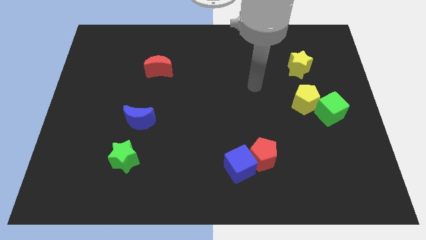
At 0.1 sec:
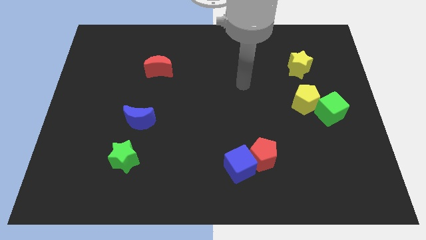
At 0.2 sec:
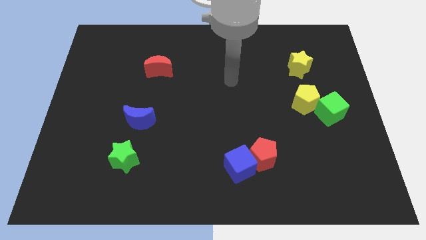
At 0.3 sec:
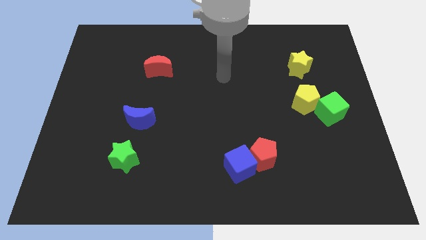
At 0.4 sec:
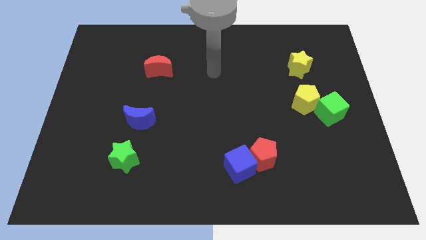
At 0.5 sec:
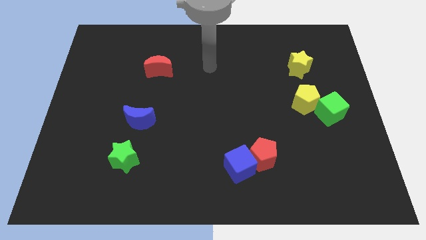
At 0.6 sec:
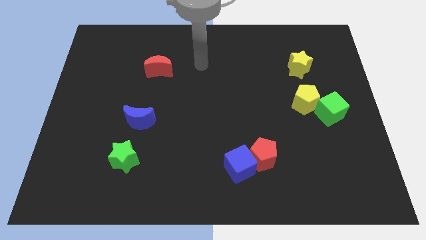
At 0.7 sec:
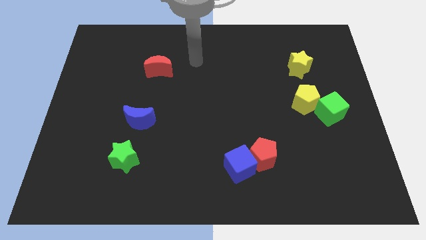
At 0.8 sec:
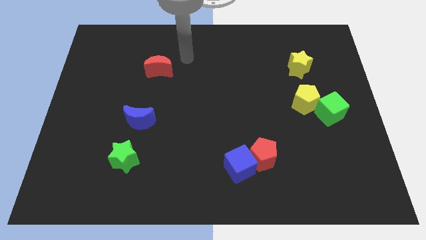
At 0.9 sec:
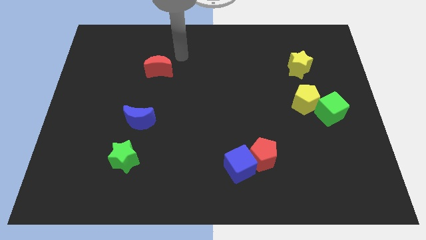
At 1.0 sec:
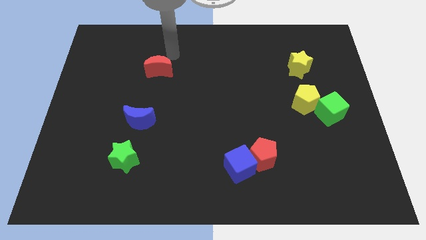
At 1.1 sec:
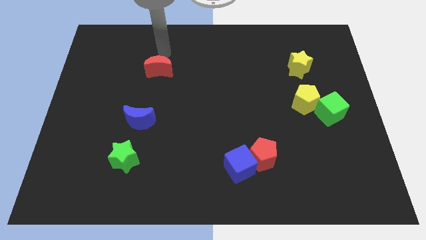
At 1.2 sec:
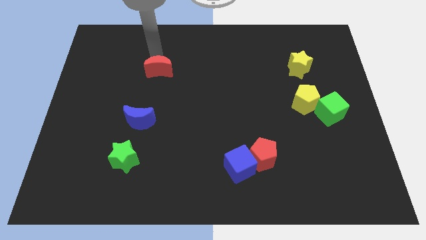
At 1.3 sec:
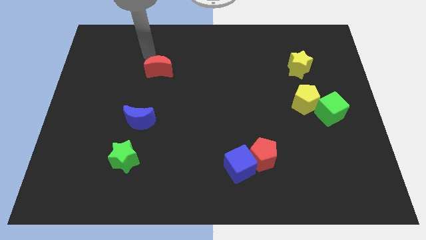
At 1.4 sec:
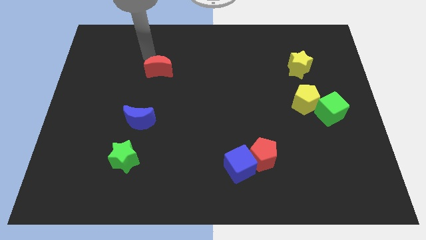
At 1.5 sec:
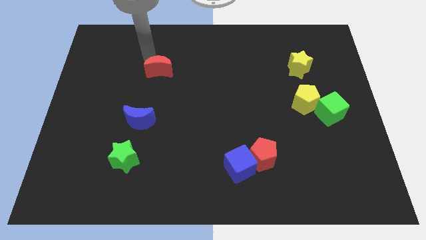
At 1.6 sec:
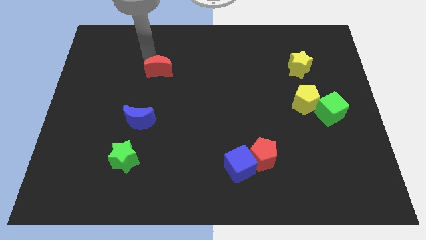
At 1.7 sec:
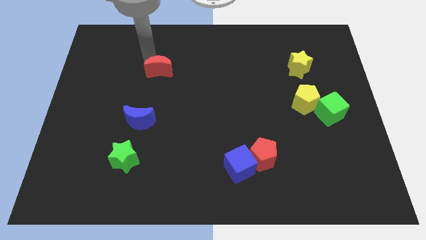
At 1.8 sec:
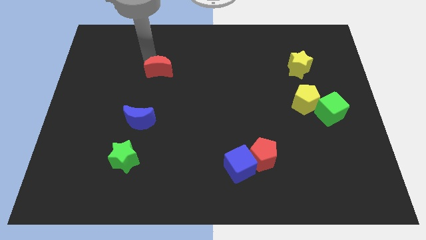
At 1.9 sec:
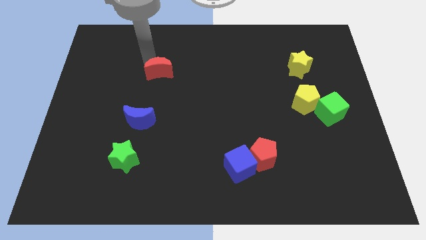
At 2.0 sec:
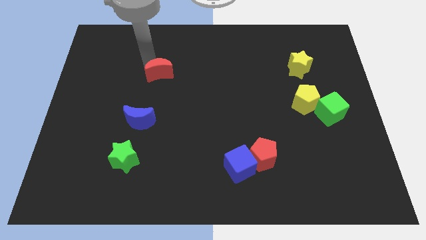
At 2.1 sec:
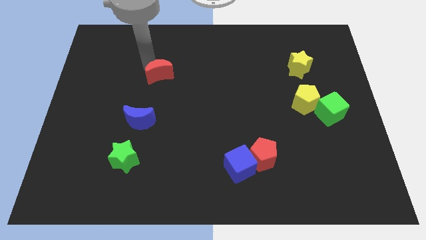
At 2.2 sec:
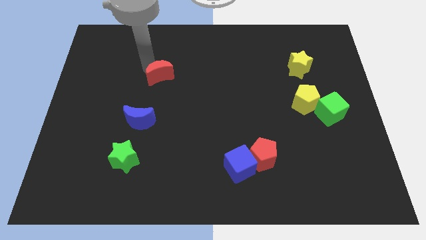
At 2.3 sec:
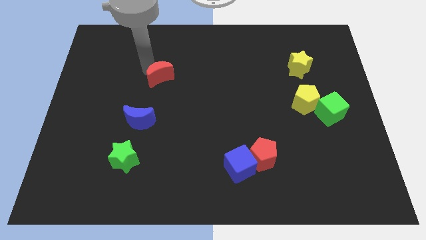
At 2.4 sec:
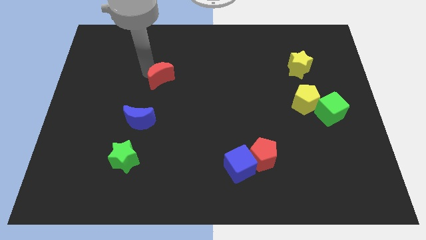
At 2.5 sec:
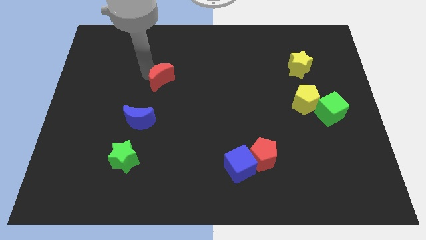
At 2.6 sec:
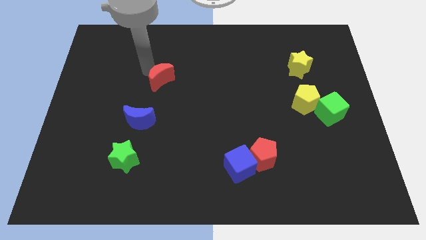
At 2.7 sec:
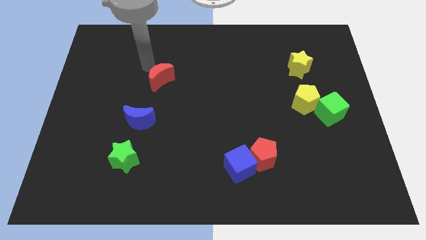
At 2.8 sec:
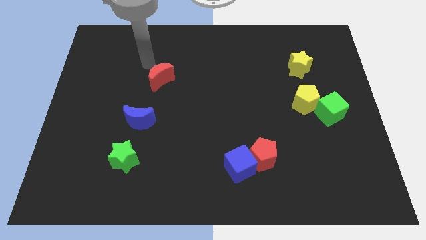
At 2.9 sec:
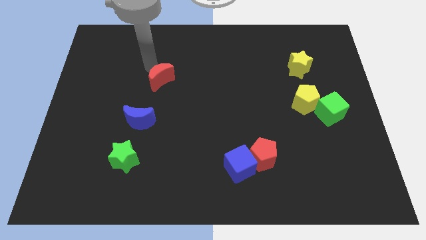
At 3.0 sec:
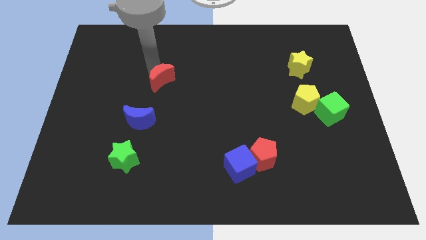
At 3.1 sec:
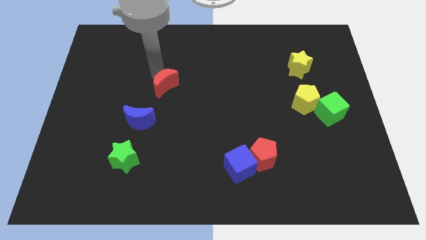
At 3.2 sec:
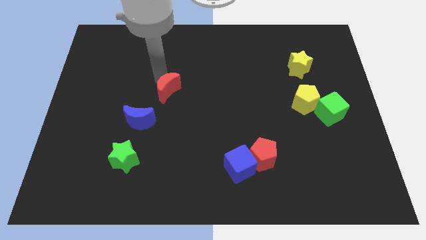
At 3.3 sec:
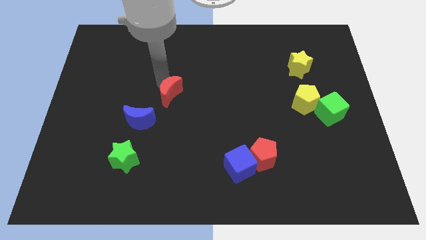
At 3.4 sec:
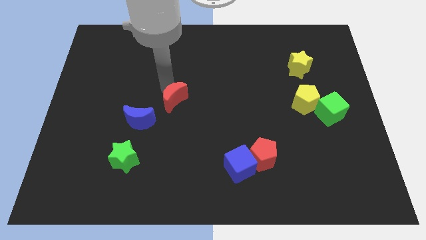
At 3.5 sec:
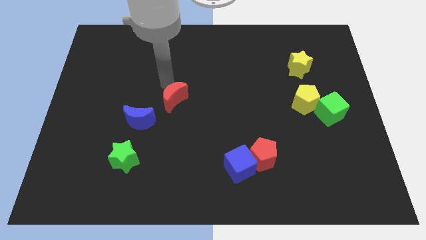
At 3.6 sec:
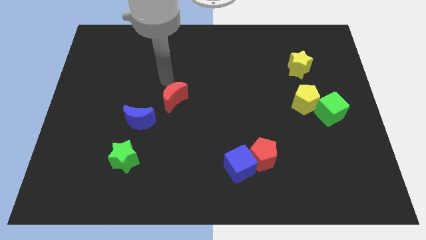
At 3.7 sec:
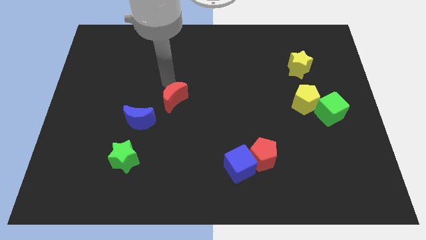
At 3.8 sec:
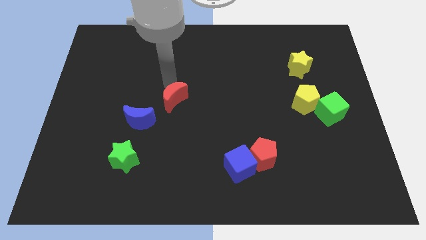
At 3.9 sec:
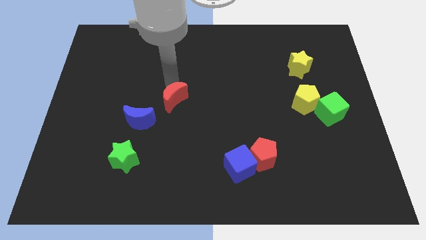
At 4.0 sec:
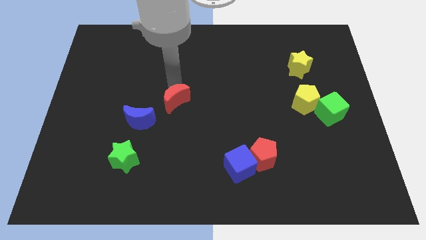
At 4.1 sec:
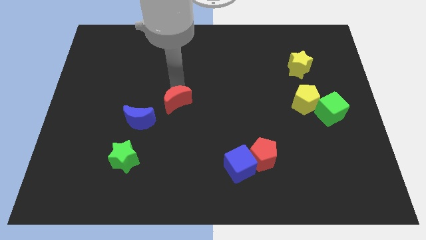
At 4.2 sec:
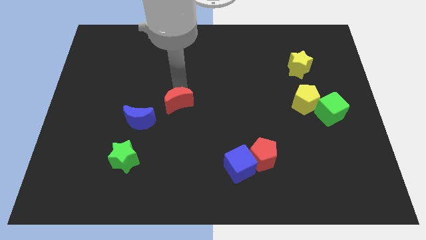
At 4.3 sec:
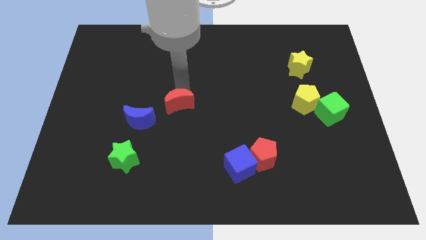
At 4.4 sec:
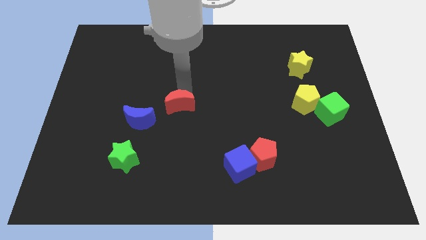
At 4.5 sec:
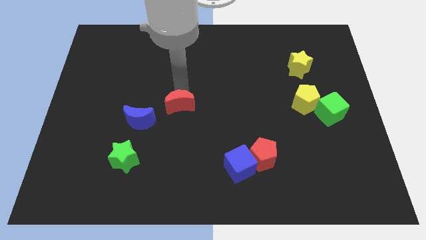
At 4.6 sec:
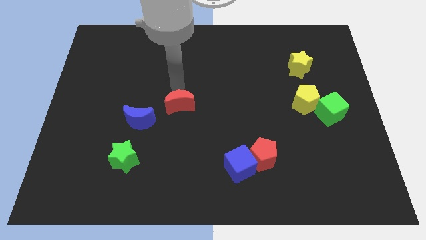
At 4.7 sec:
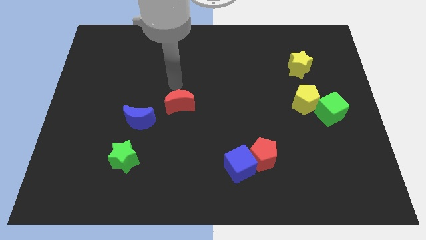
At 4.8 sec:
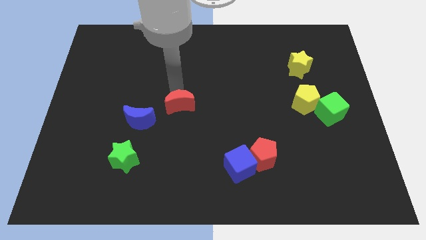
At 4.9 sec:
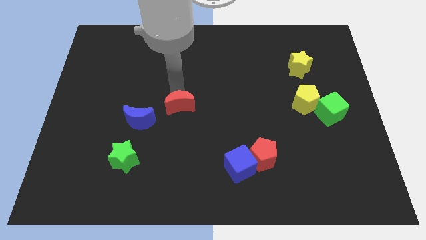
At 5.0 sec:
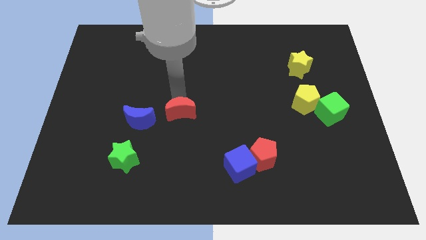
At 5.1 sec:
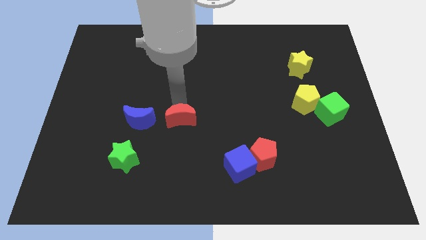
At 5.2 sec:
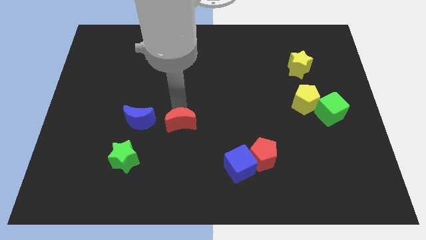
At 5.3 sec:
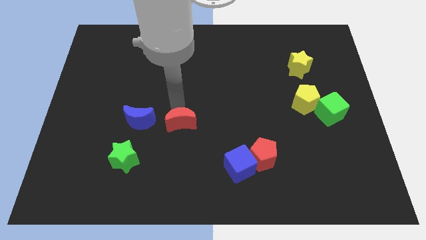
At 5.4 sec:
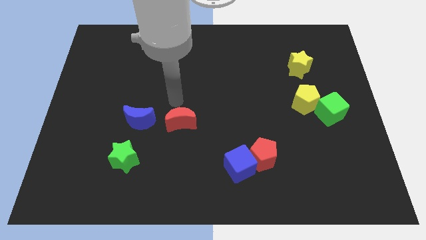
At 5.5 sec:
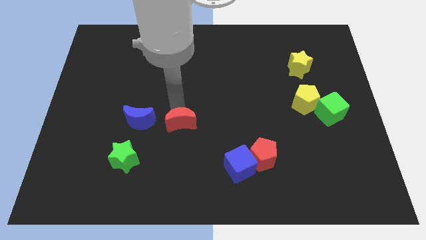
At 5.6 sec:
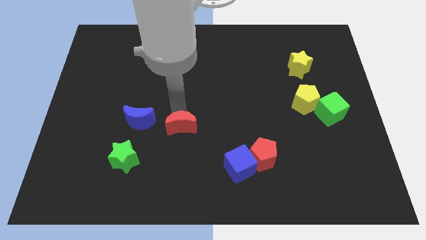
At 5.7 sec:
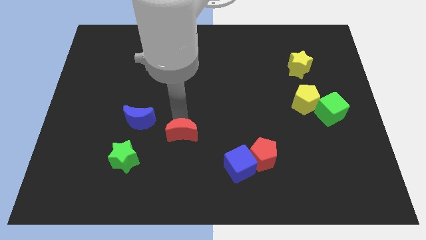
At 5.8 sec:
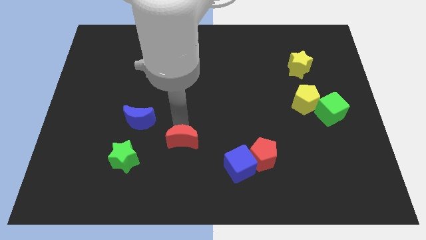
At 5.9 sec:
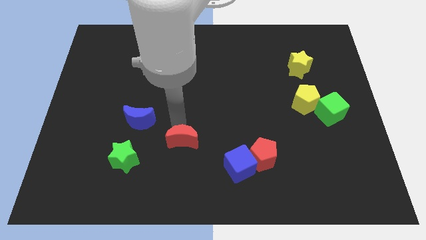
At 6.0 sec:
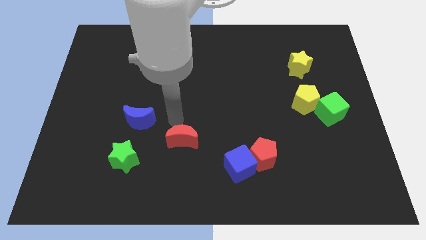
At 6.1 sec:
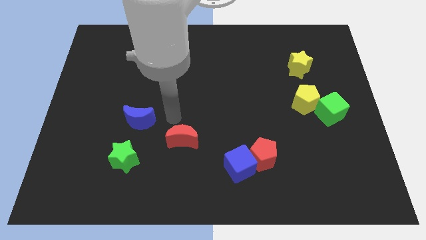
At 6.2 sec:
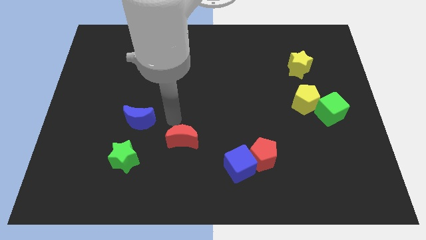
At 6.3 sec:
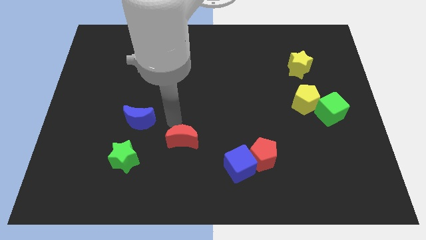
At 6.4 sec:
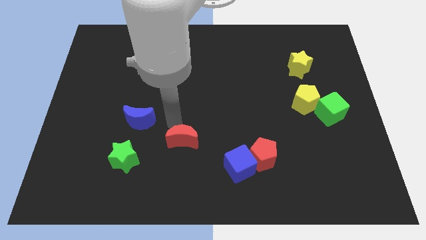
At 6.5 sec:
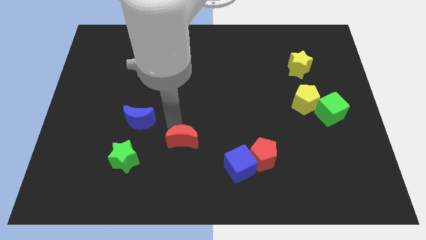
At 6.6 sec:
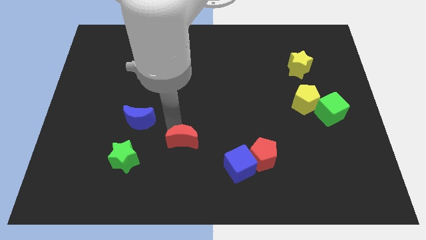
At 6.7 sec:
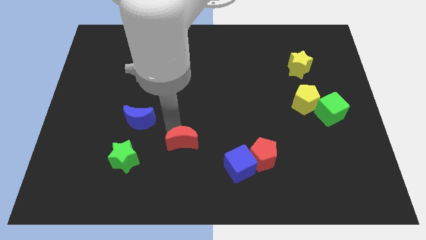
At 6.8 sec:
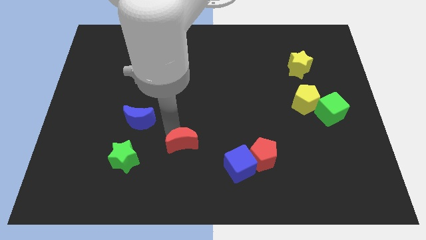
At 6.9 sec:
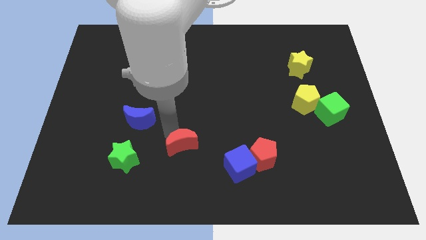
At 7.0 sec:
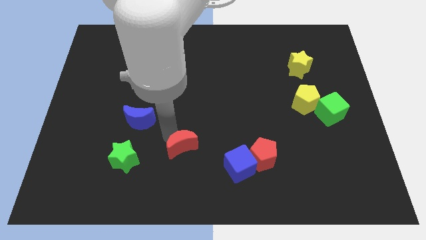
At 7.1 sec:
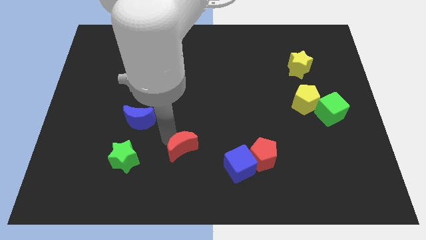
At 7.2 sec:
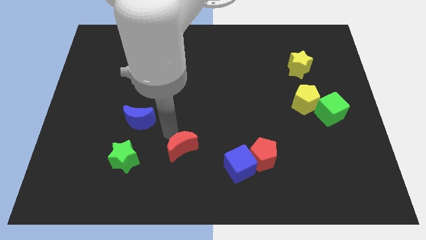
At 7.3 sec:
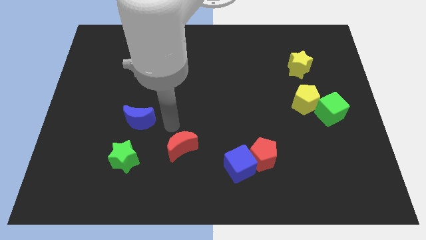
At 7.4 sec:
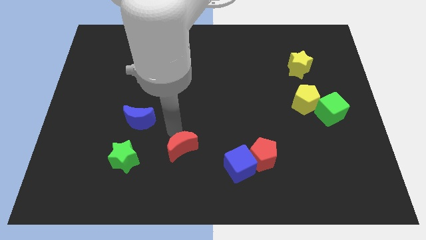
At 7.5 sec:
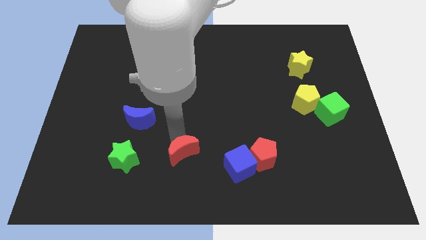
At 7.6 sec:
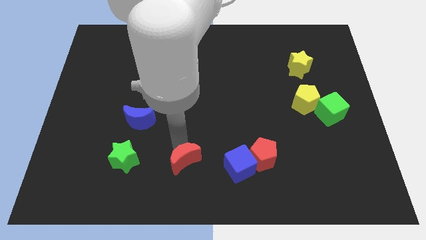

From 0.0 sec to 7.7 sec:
put the red moon to the bottom side
